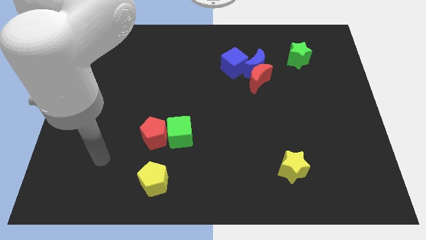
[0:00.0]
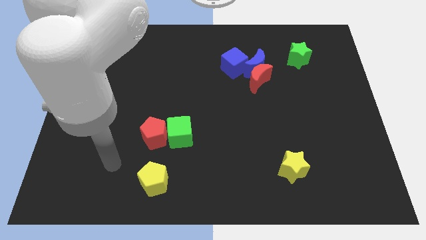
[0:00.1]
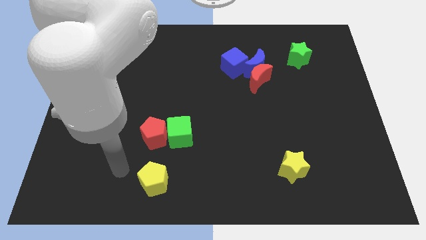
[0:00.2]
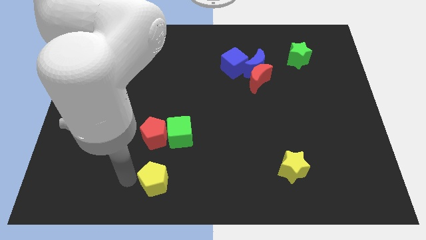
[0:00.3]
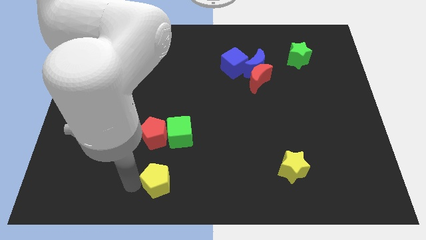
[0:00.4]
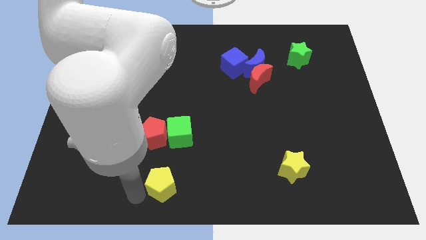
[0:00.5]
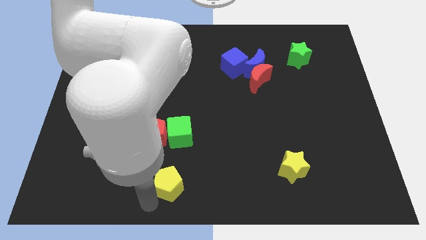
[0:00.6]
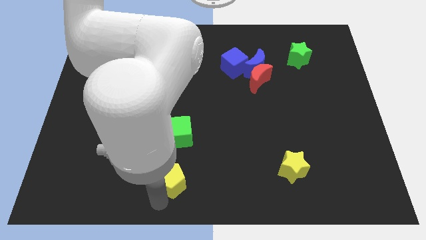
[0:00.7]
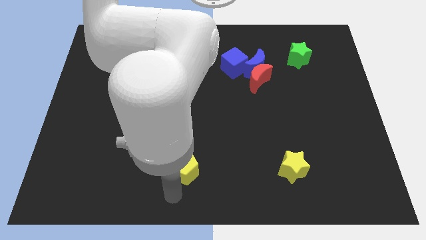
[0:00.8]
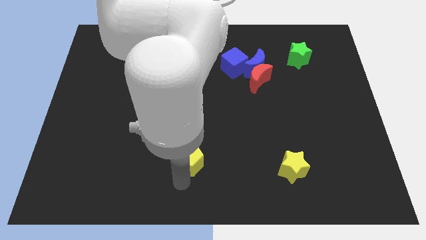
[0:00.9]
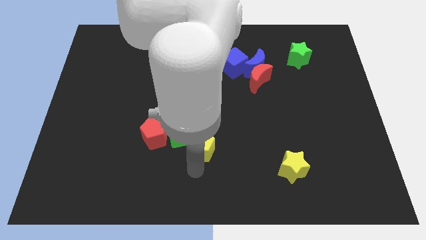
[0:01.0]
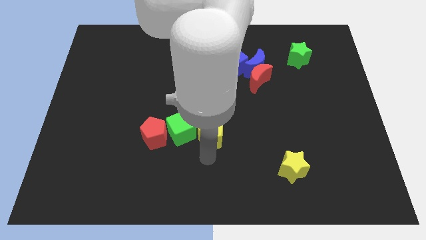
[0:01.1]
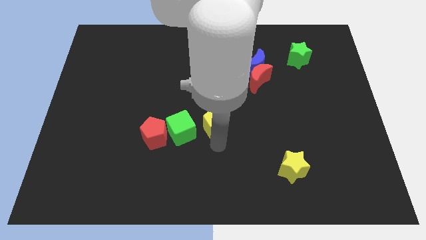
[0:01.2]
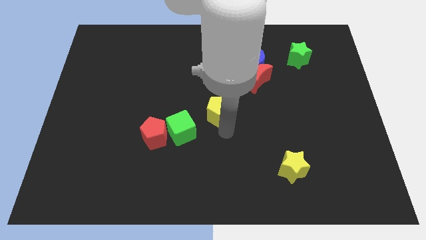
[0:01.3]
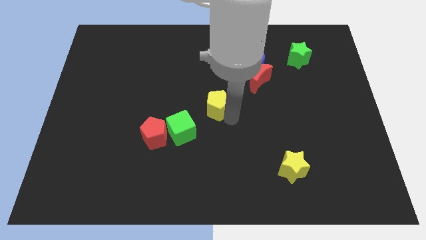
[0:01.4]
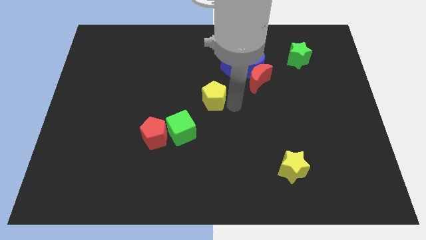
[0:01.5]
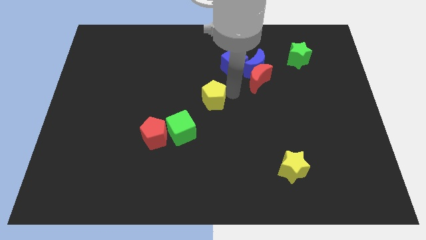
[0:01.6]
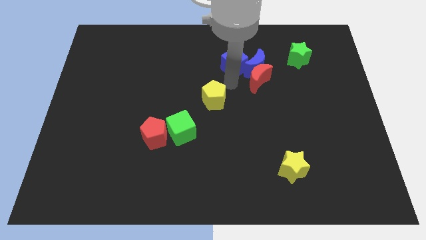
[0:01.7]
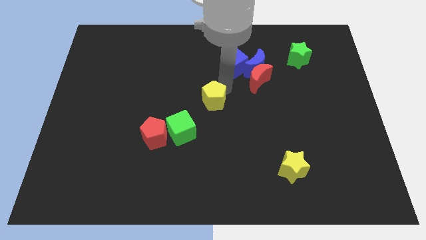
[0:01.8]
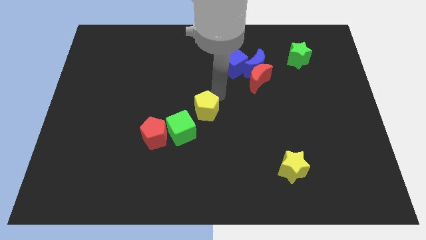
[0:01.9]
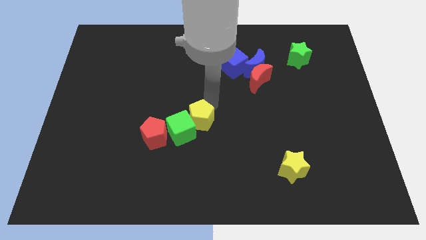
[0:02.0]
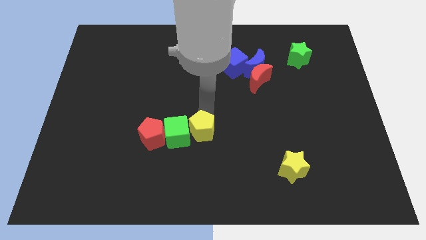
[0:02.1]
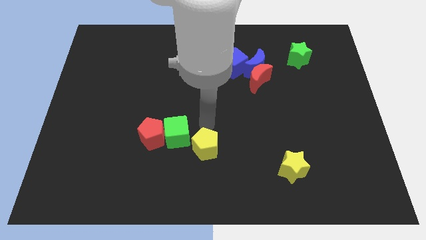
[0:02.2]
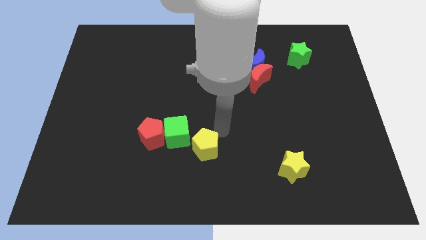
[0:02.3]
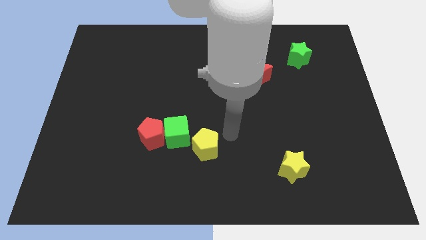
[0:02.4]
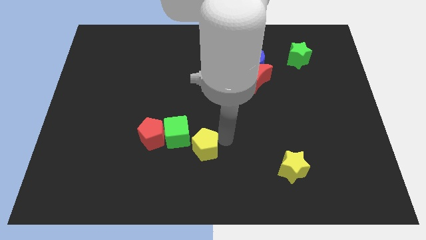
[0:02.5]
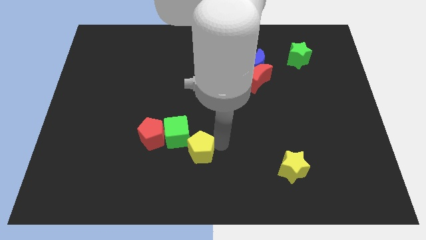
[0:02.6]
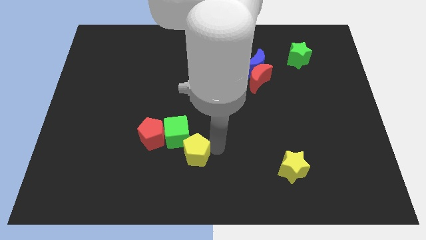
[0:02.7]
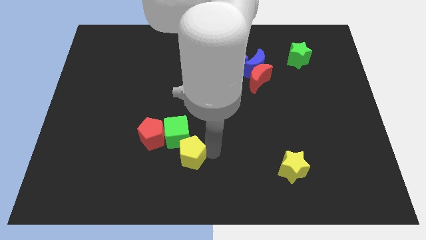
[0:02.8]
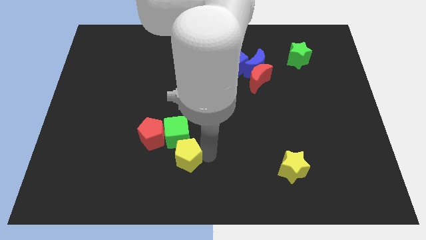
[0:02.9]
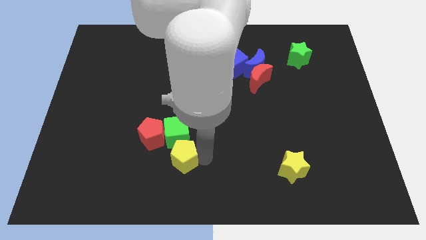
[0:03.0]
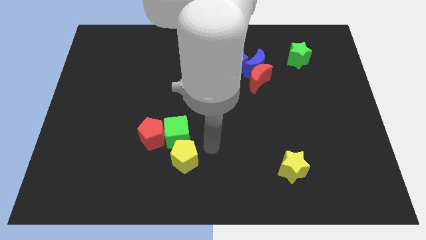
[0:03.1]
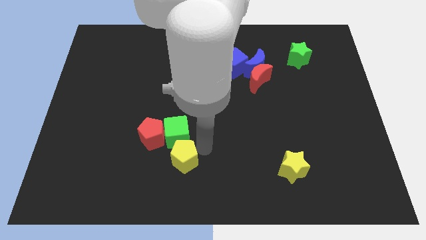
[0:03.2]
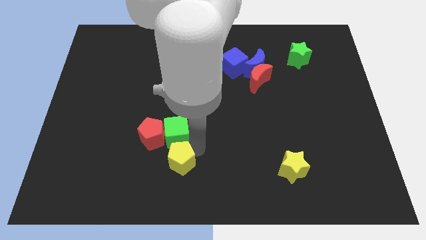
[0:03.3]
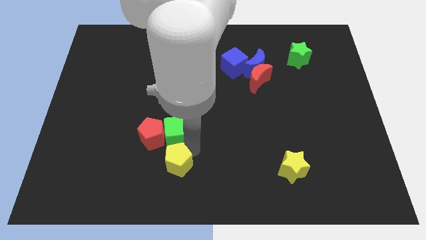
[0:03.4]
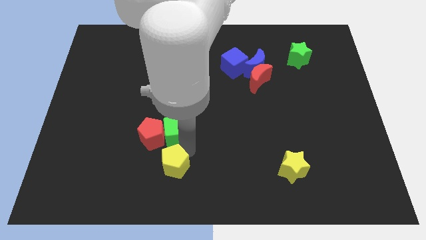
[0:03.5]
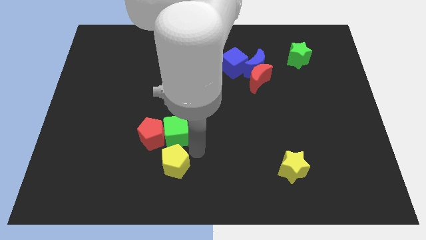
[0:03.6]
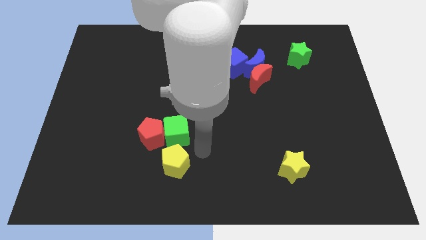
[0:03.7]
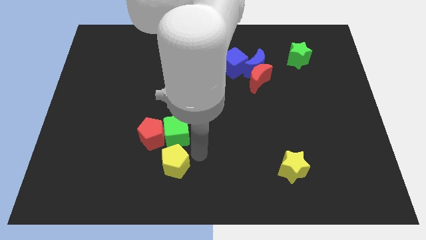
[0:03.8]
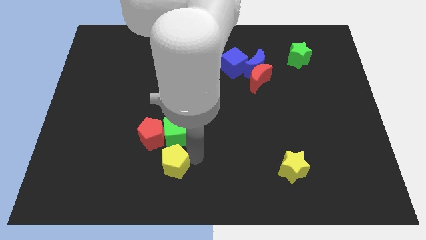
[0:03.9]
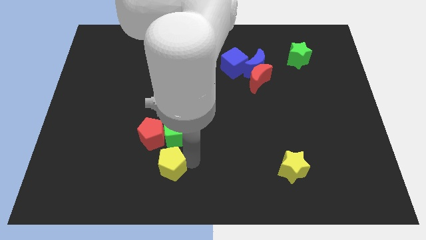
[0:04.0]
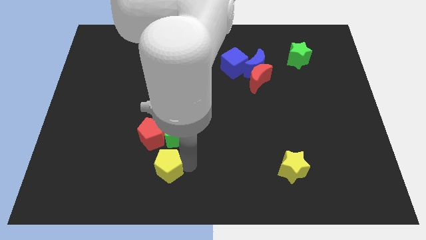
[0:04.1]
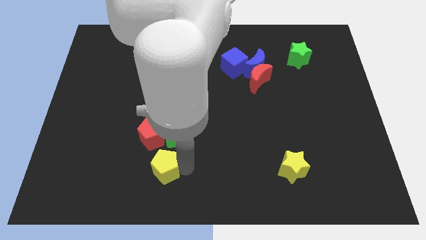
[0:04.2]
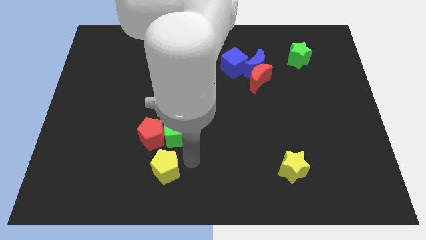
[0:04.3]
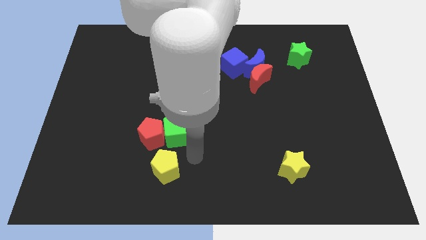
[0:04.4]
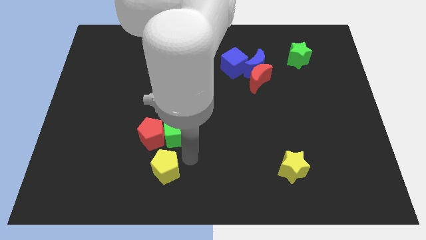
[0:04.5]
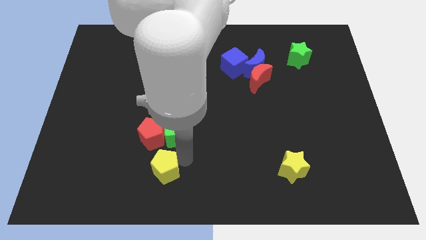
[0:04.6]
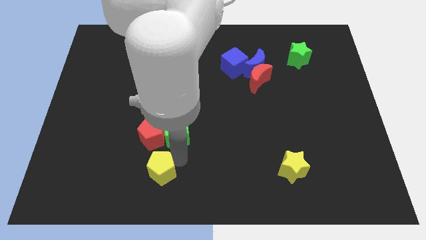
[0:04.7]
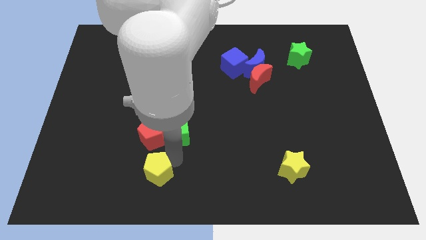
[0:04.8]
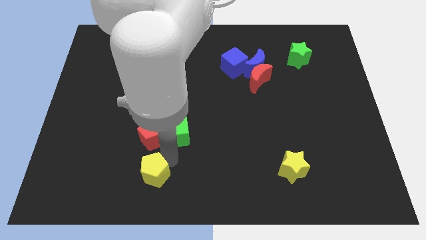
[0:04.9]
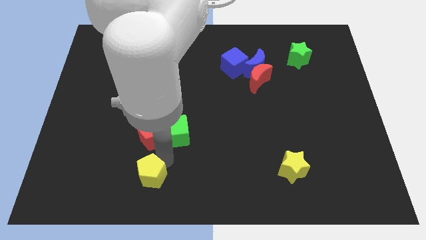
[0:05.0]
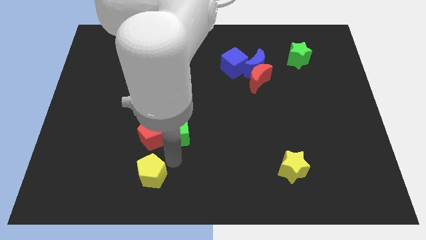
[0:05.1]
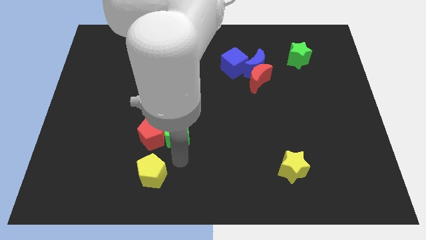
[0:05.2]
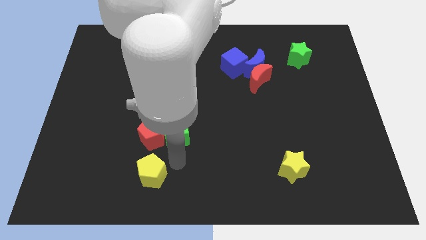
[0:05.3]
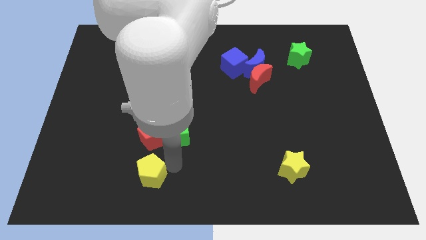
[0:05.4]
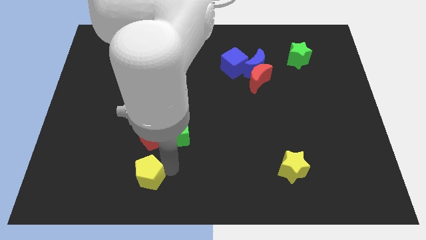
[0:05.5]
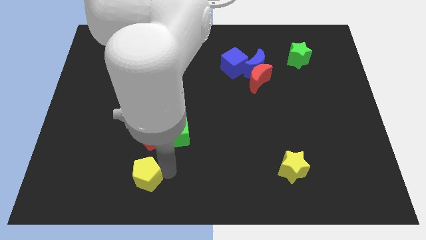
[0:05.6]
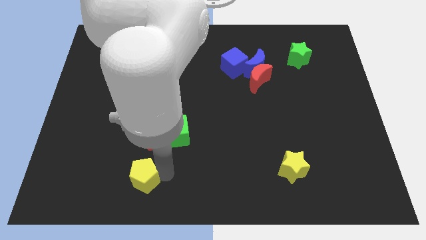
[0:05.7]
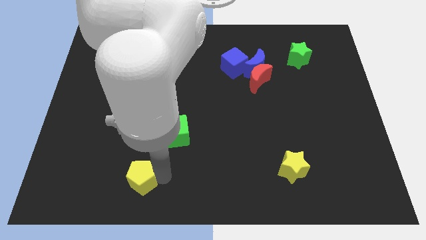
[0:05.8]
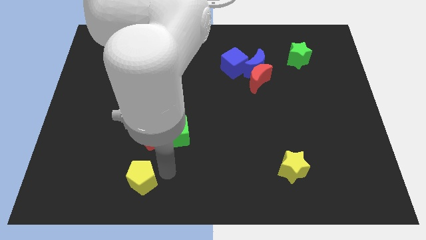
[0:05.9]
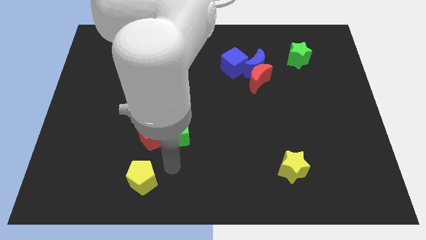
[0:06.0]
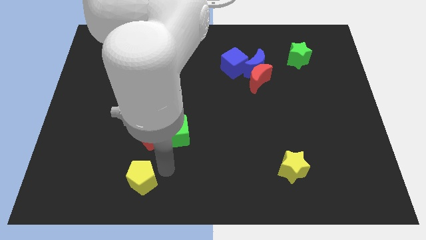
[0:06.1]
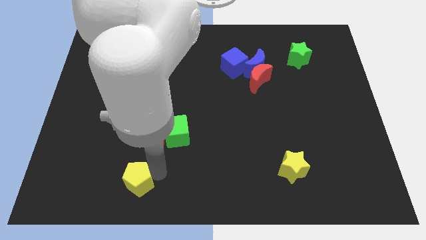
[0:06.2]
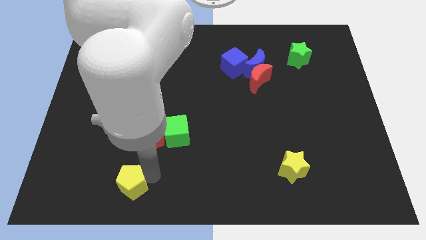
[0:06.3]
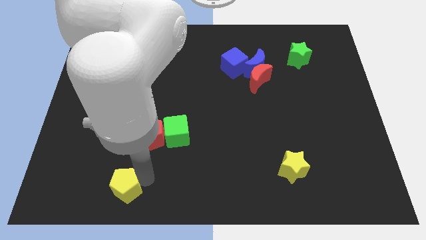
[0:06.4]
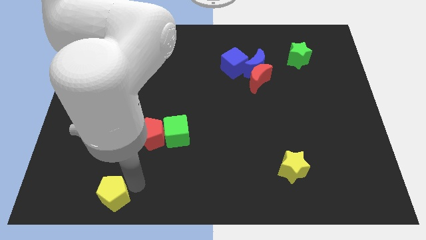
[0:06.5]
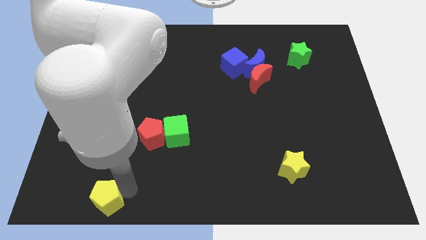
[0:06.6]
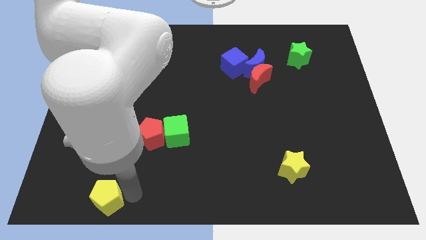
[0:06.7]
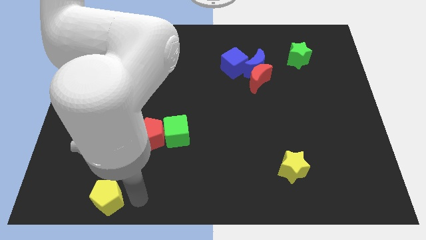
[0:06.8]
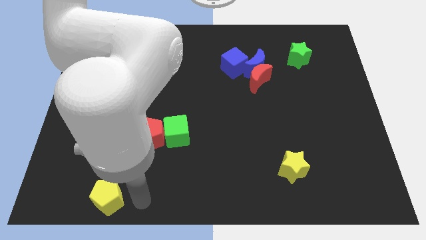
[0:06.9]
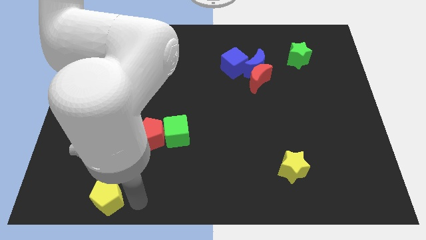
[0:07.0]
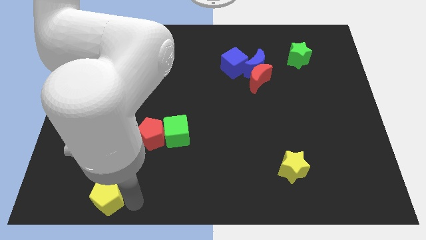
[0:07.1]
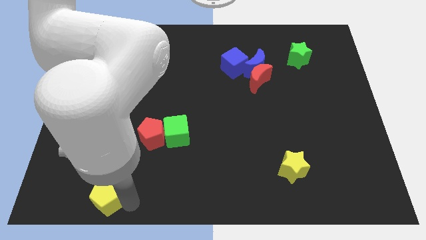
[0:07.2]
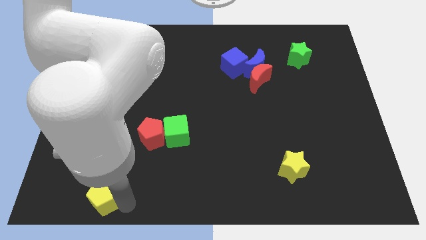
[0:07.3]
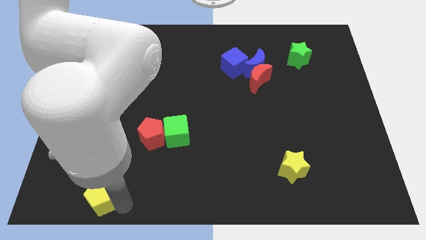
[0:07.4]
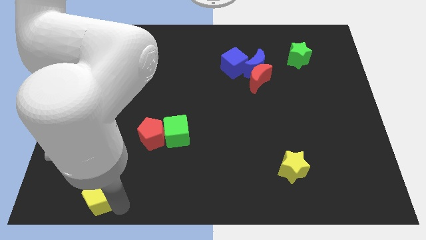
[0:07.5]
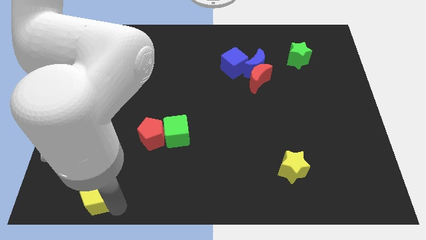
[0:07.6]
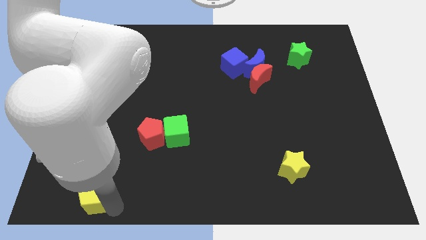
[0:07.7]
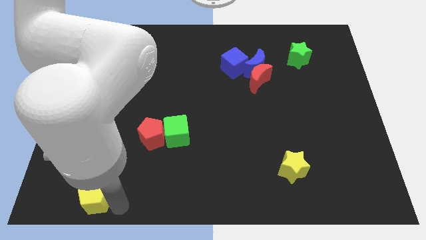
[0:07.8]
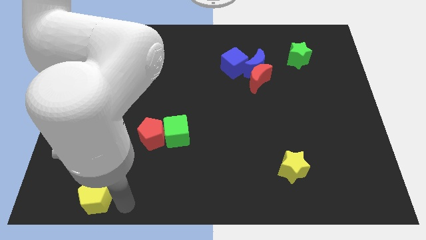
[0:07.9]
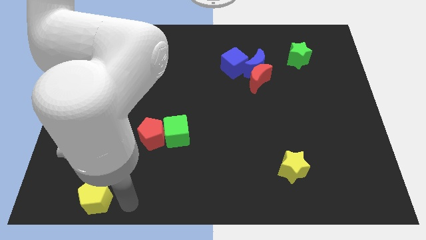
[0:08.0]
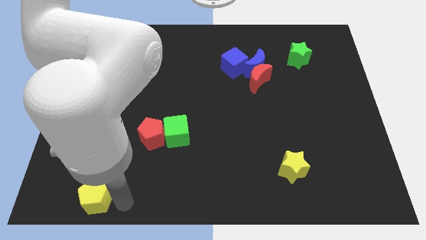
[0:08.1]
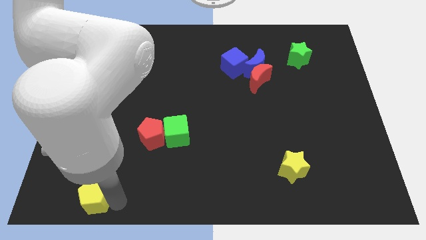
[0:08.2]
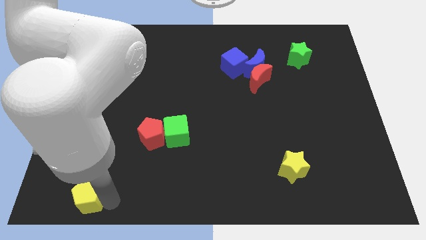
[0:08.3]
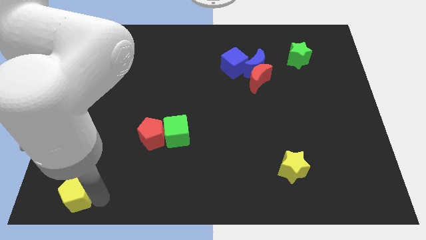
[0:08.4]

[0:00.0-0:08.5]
slide the yellow pentagon to the lower left corner
